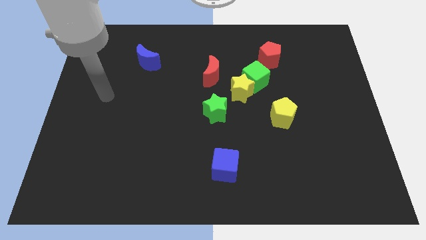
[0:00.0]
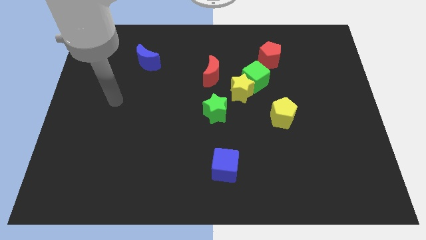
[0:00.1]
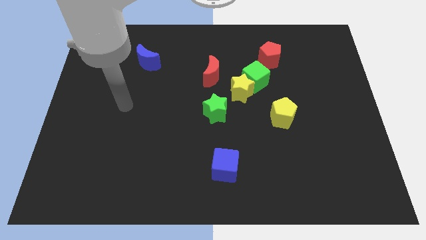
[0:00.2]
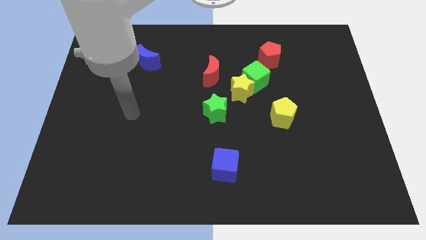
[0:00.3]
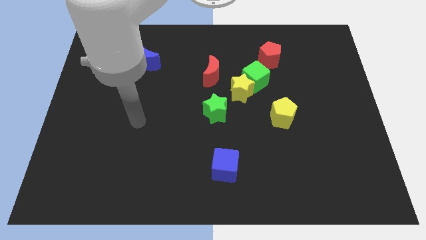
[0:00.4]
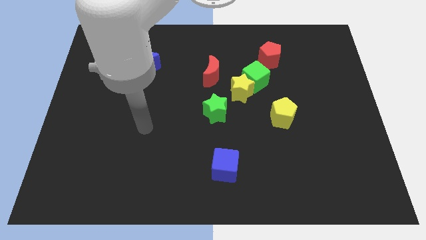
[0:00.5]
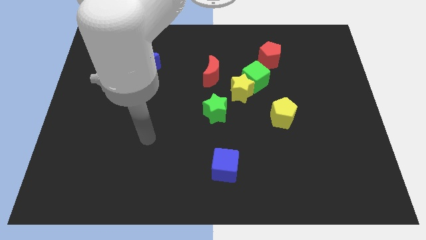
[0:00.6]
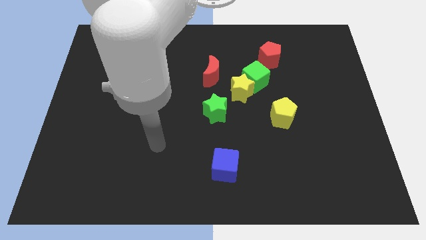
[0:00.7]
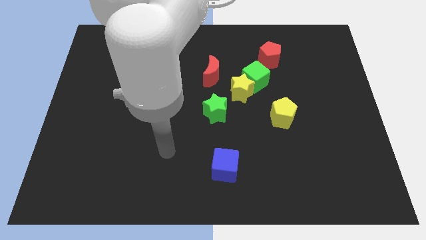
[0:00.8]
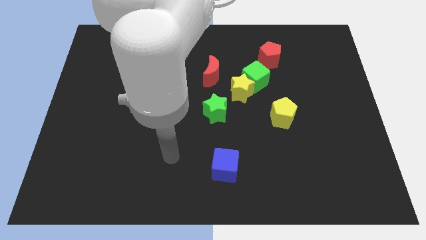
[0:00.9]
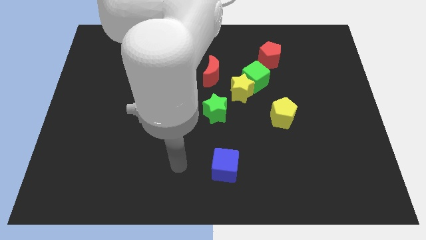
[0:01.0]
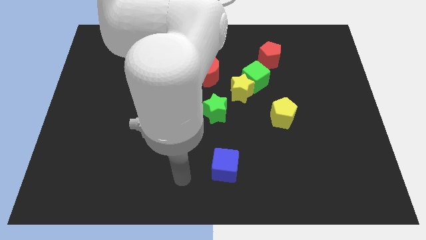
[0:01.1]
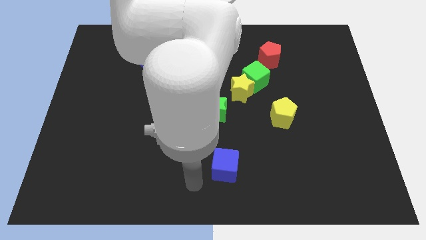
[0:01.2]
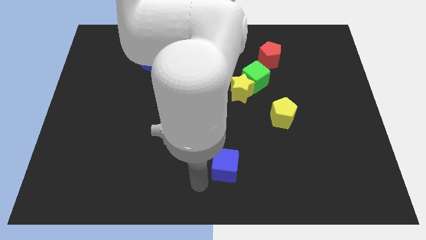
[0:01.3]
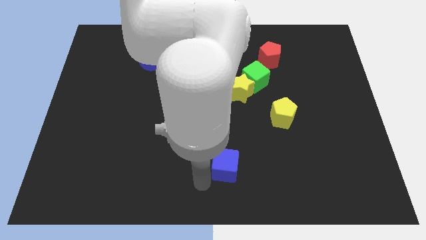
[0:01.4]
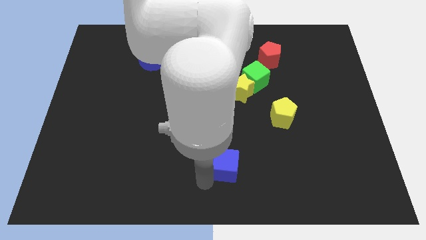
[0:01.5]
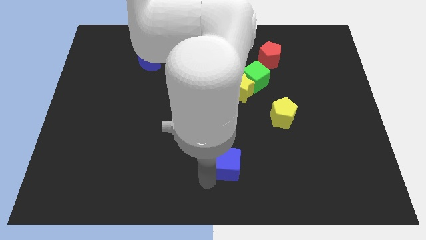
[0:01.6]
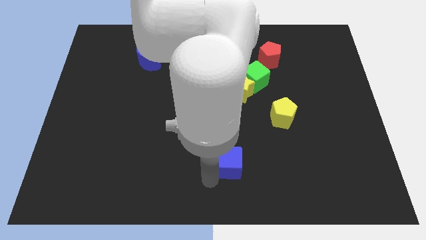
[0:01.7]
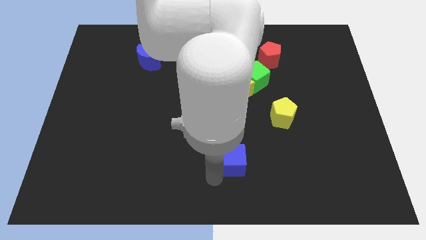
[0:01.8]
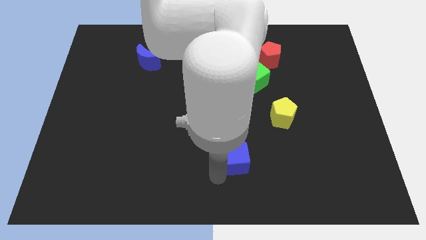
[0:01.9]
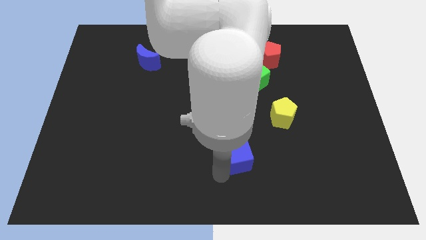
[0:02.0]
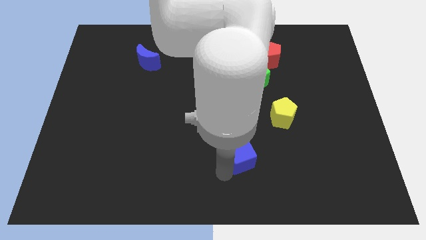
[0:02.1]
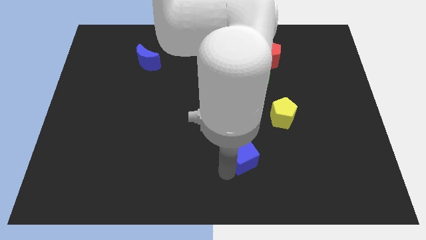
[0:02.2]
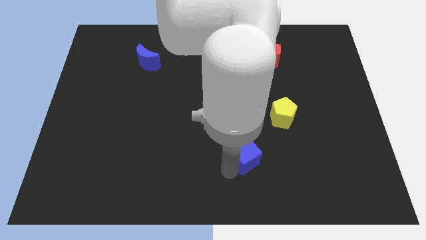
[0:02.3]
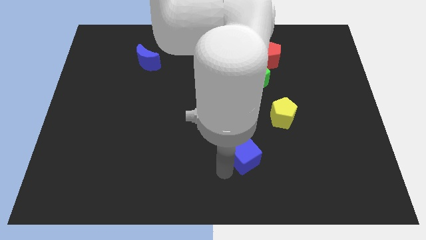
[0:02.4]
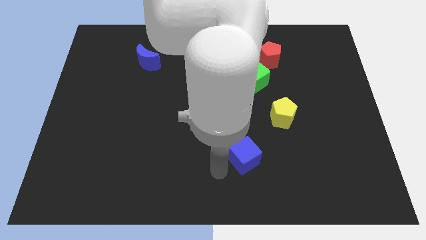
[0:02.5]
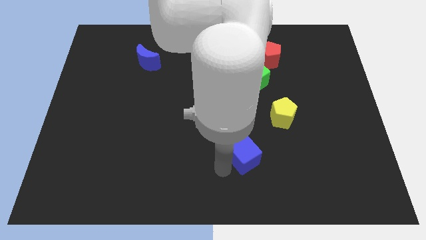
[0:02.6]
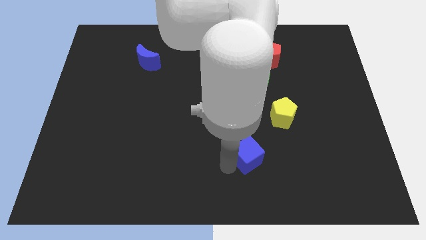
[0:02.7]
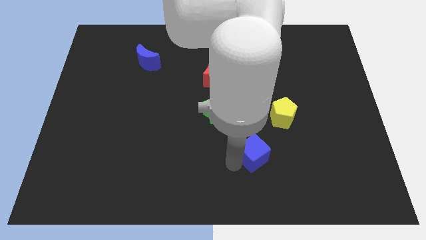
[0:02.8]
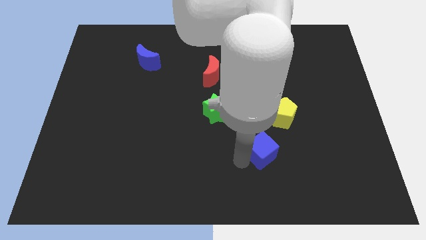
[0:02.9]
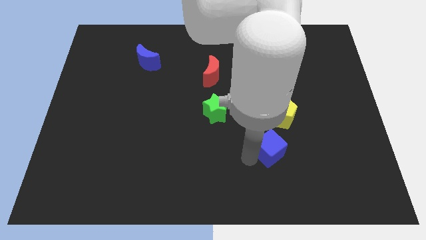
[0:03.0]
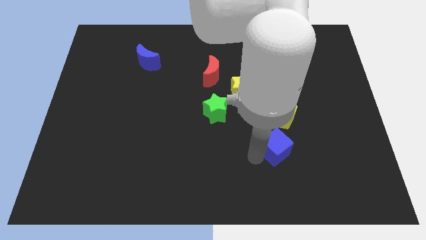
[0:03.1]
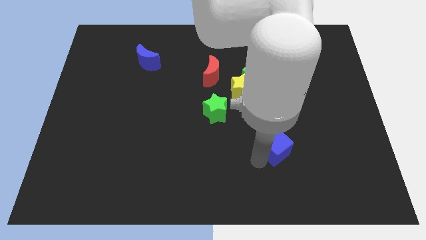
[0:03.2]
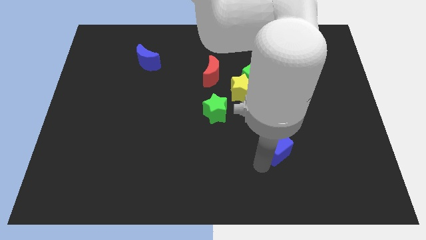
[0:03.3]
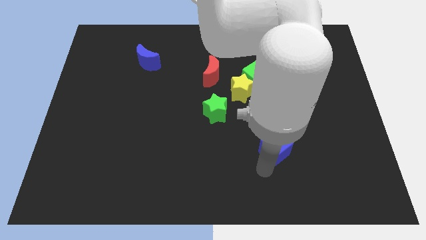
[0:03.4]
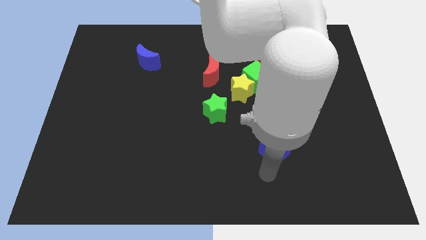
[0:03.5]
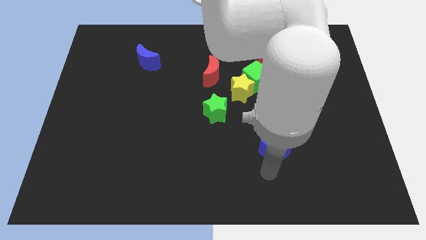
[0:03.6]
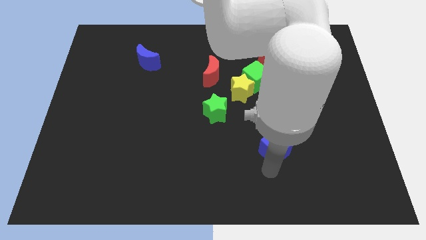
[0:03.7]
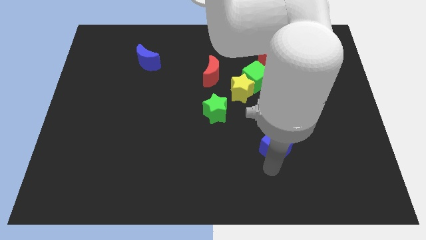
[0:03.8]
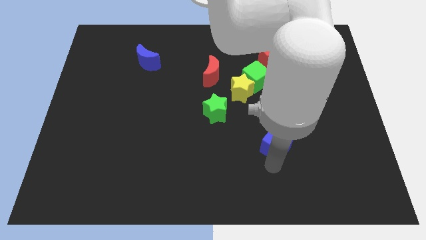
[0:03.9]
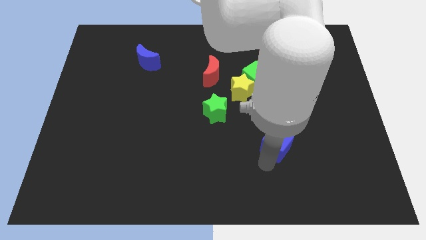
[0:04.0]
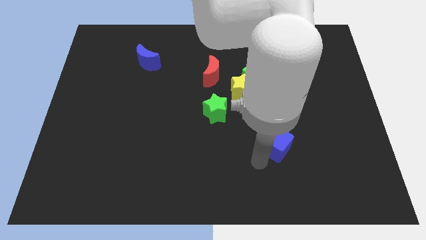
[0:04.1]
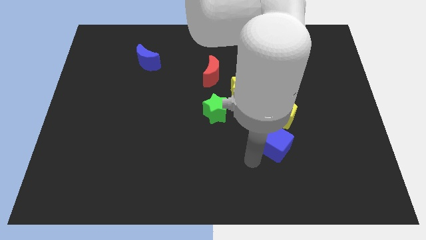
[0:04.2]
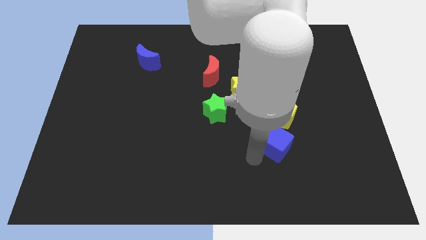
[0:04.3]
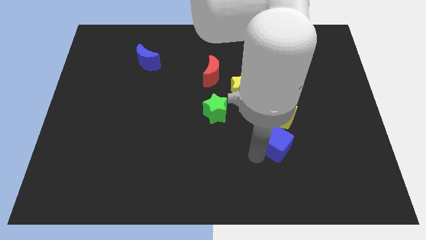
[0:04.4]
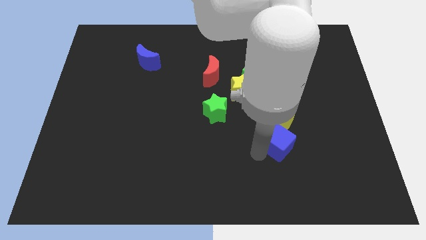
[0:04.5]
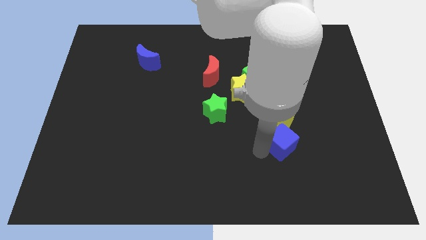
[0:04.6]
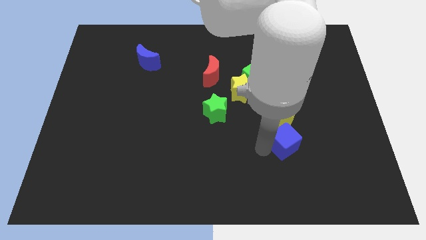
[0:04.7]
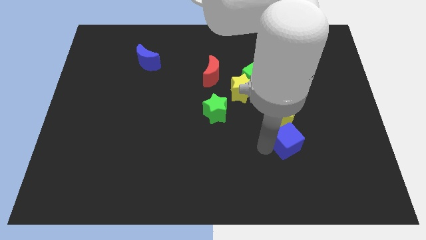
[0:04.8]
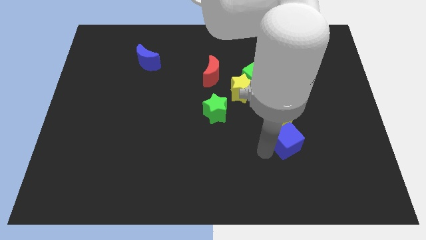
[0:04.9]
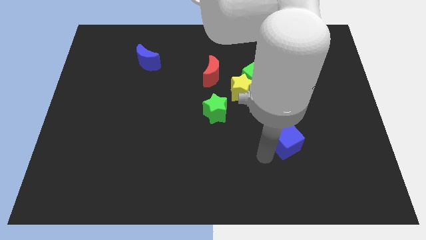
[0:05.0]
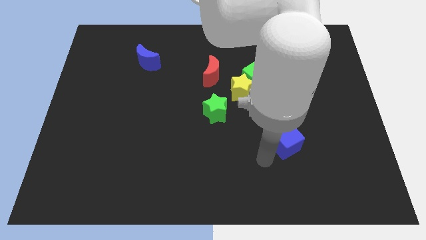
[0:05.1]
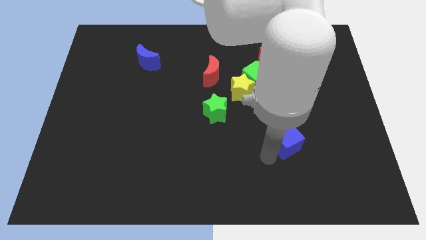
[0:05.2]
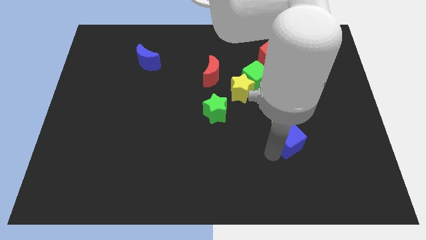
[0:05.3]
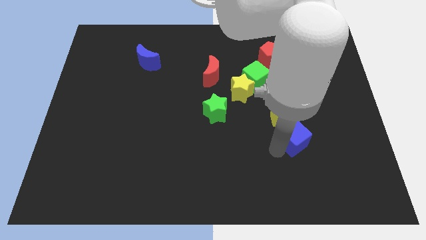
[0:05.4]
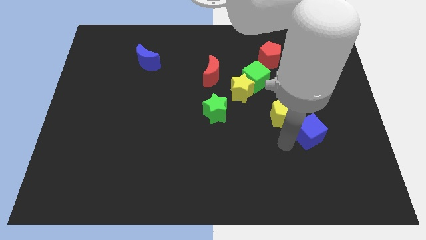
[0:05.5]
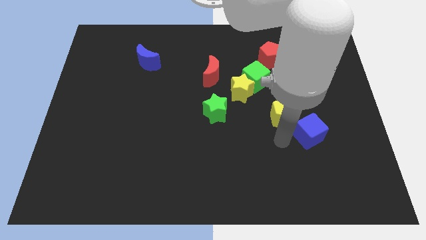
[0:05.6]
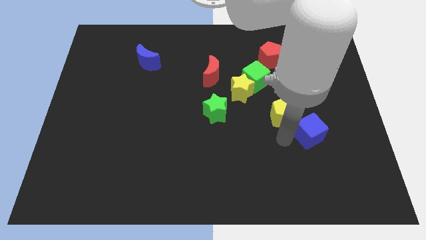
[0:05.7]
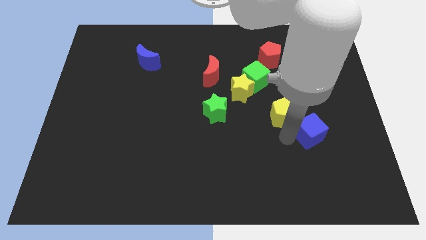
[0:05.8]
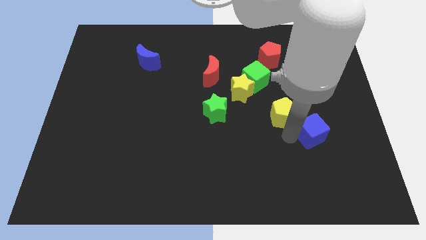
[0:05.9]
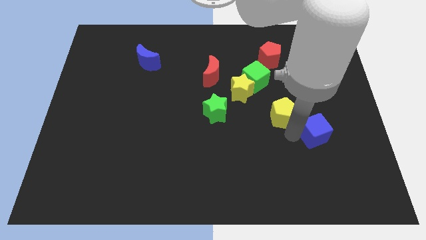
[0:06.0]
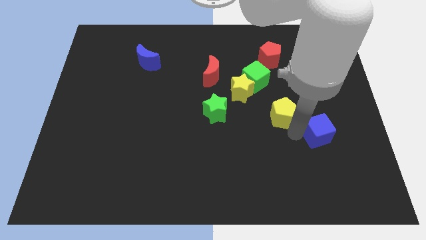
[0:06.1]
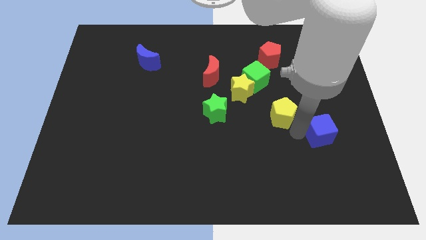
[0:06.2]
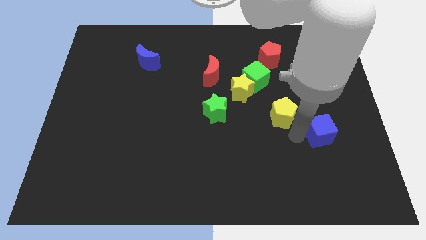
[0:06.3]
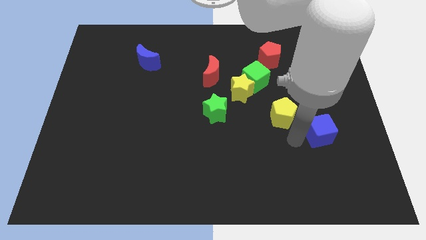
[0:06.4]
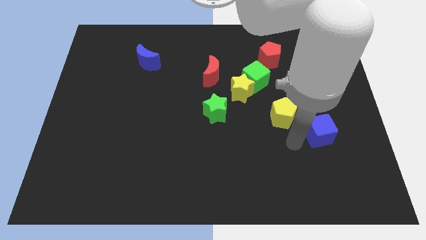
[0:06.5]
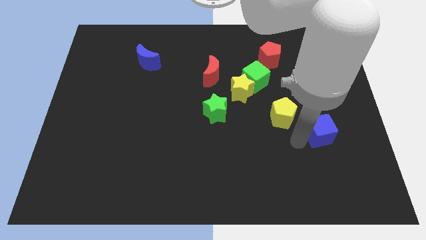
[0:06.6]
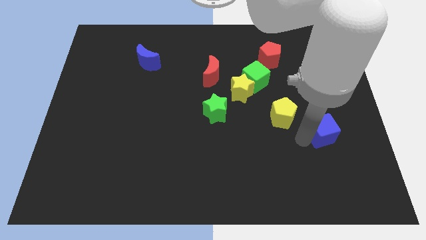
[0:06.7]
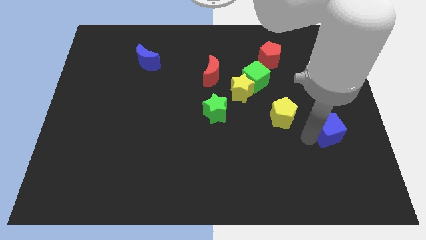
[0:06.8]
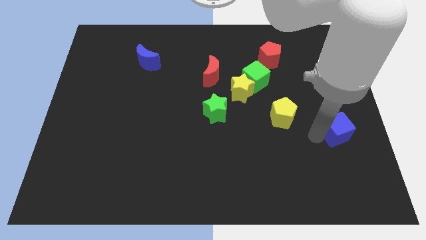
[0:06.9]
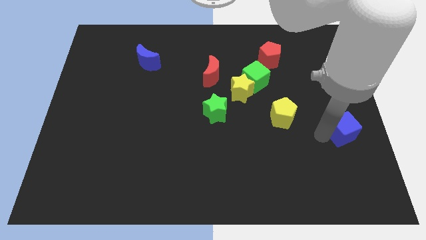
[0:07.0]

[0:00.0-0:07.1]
put the blue cube to the center right
